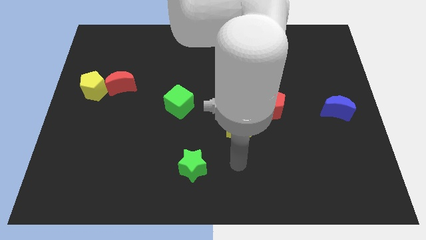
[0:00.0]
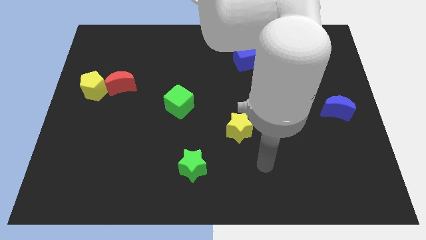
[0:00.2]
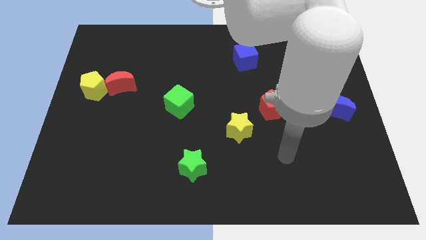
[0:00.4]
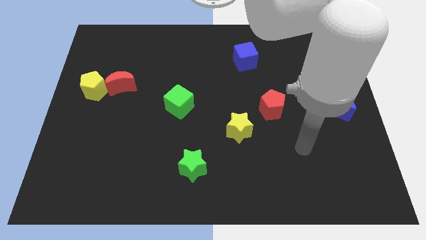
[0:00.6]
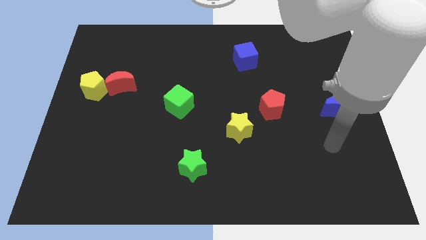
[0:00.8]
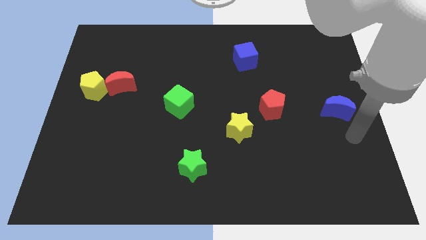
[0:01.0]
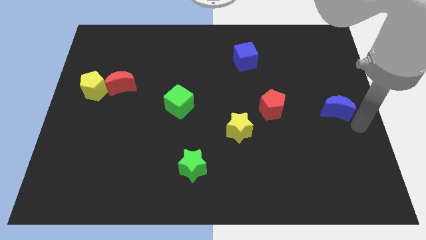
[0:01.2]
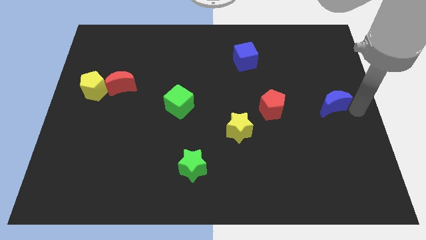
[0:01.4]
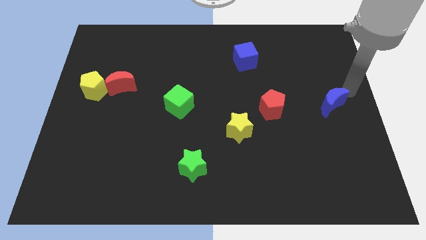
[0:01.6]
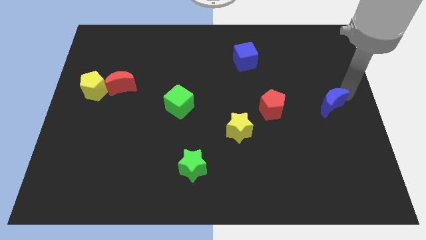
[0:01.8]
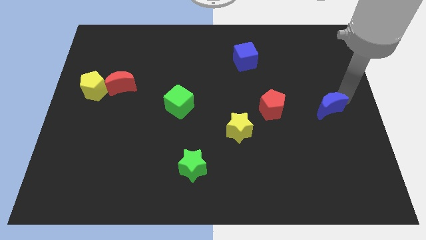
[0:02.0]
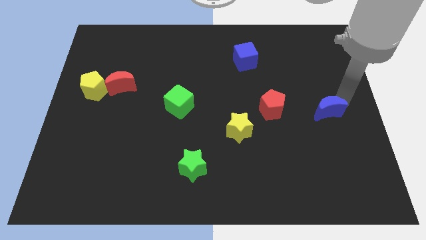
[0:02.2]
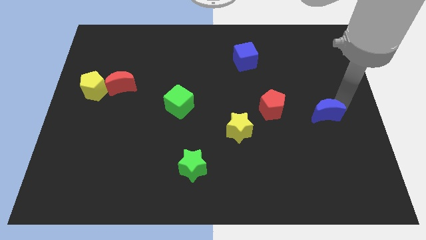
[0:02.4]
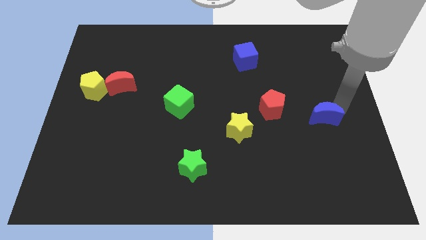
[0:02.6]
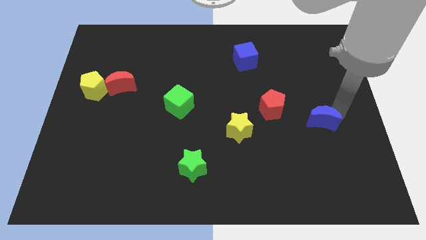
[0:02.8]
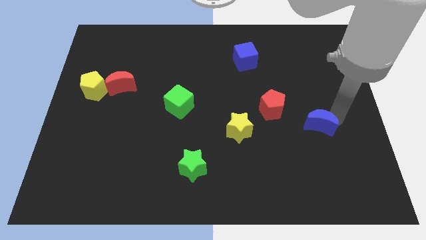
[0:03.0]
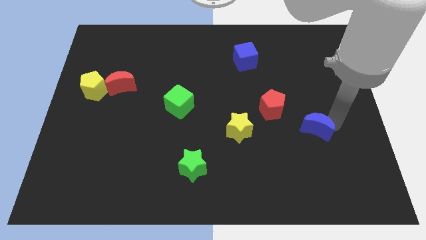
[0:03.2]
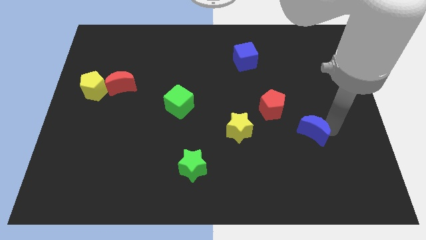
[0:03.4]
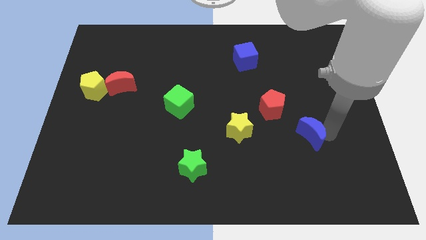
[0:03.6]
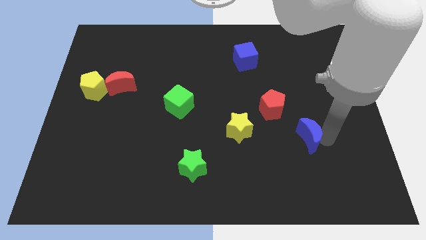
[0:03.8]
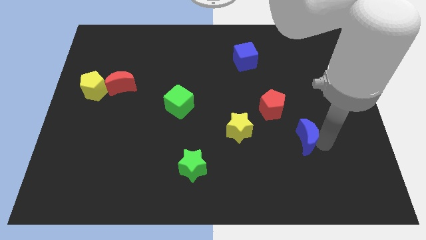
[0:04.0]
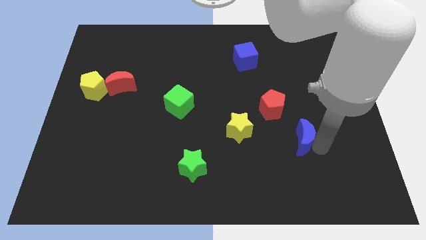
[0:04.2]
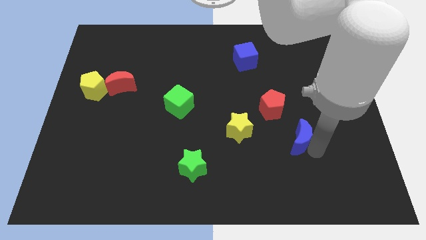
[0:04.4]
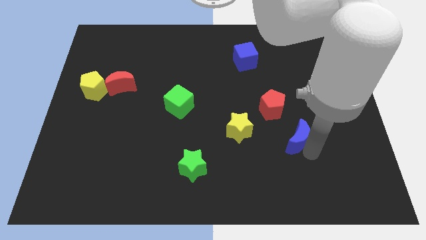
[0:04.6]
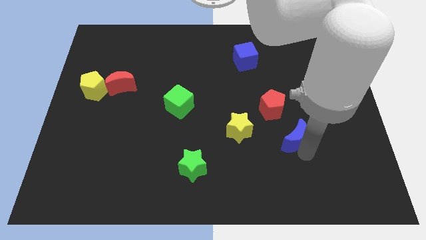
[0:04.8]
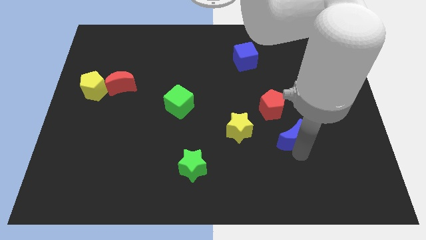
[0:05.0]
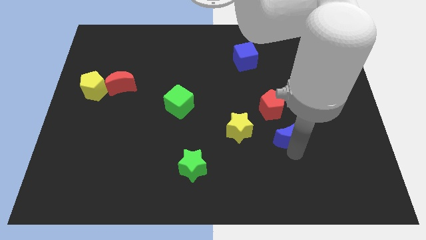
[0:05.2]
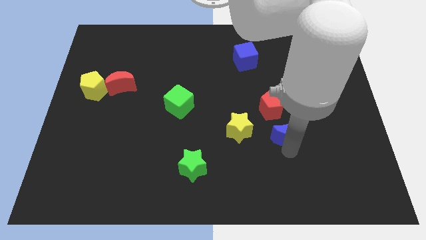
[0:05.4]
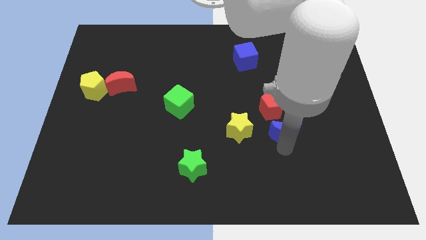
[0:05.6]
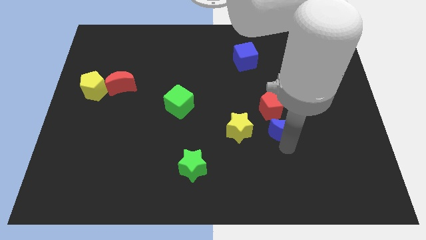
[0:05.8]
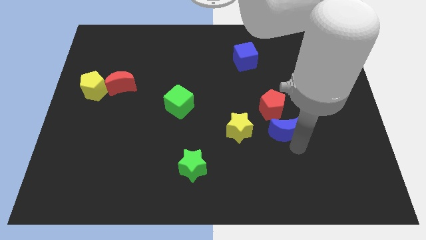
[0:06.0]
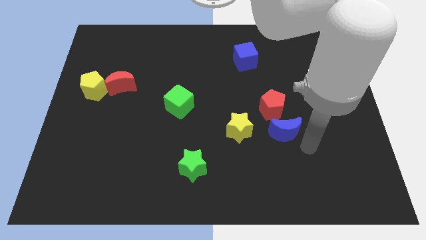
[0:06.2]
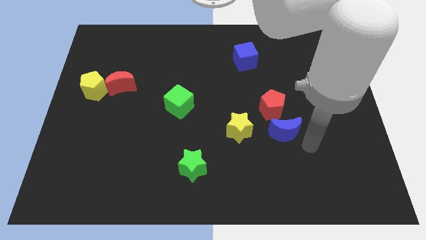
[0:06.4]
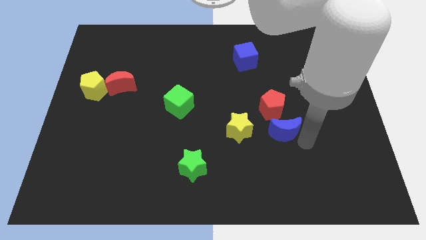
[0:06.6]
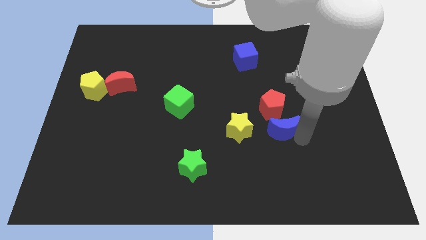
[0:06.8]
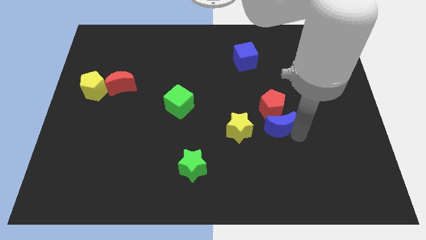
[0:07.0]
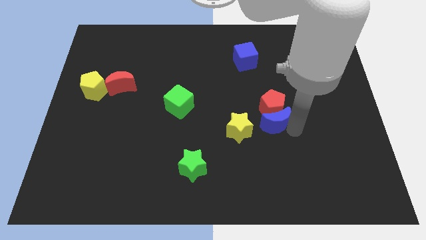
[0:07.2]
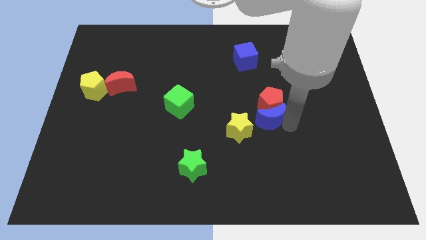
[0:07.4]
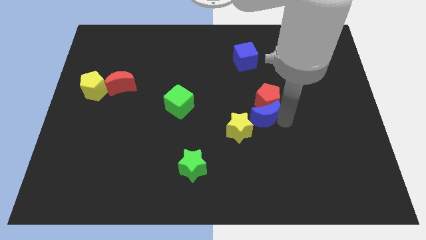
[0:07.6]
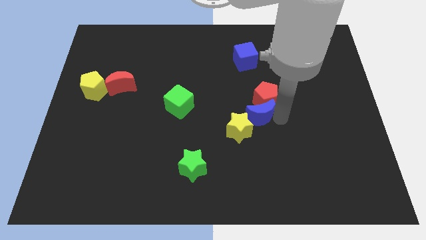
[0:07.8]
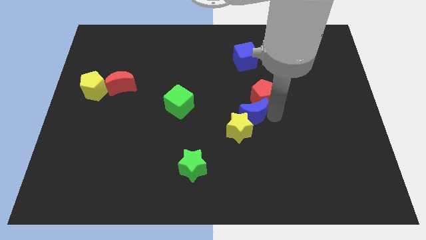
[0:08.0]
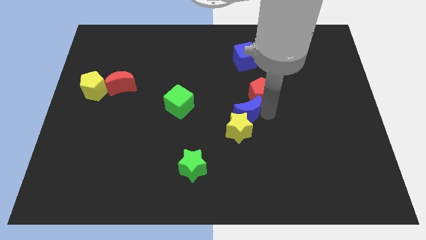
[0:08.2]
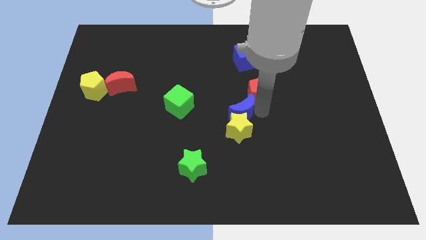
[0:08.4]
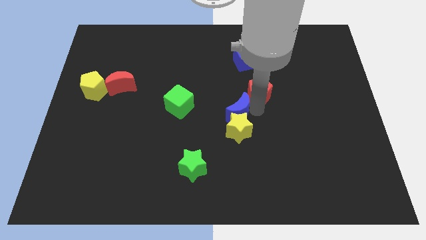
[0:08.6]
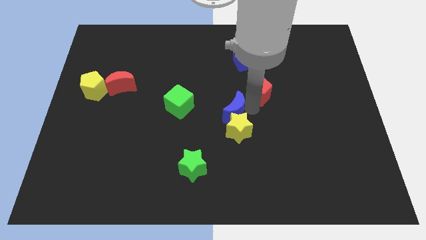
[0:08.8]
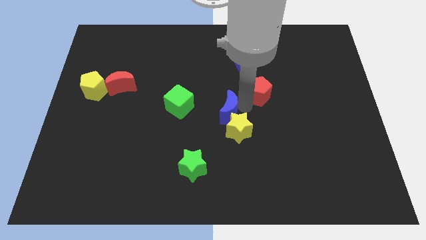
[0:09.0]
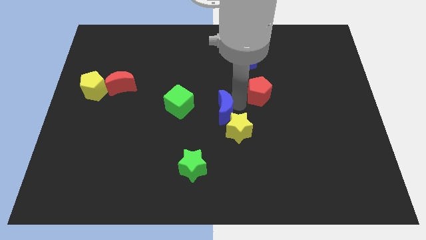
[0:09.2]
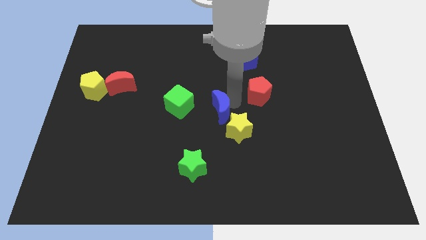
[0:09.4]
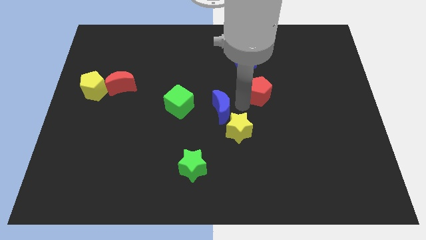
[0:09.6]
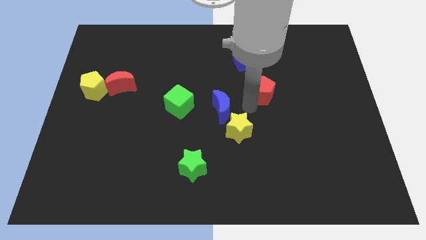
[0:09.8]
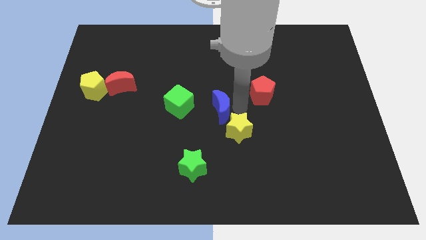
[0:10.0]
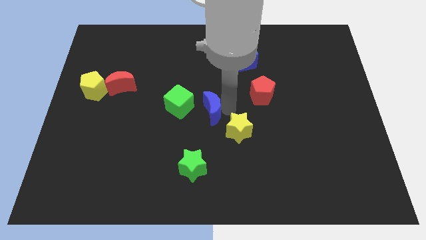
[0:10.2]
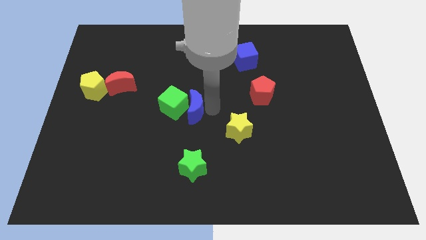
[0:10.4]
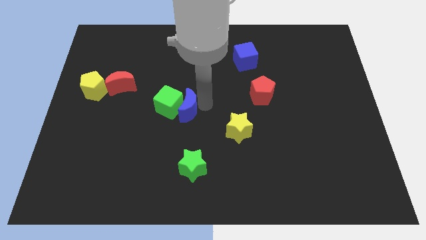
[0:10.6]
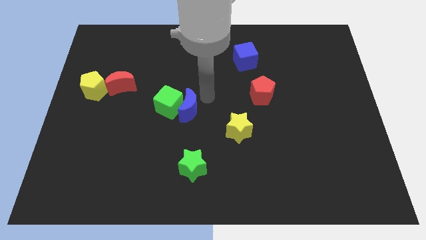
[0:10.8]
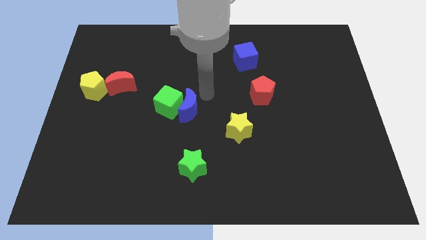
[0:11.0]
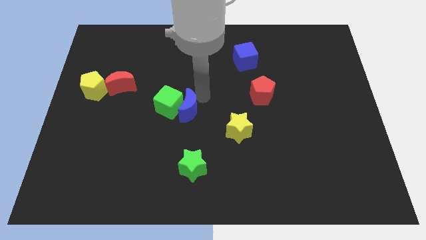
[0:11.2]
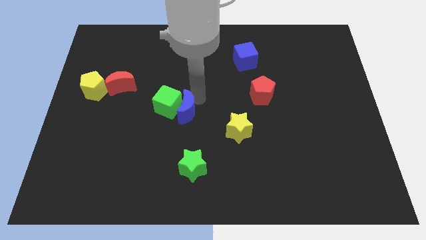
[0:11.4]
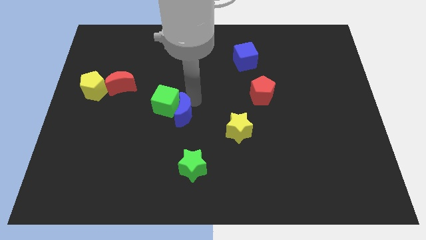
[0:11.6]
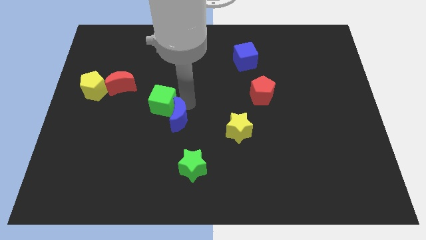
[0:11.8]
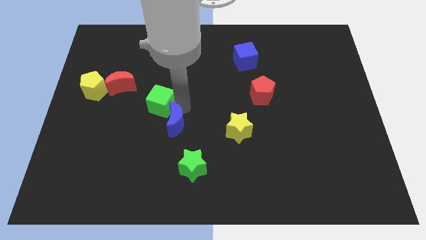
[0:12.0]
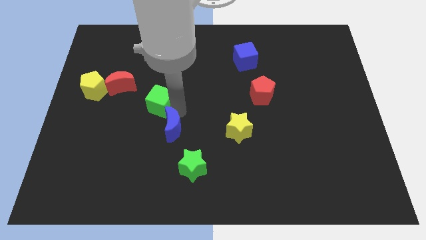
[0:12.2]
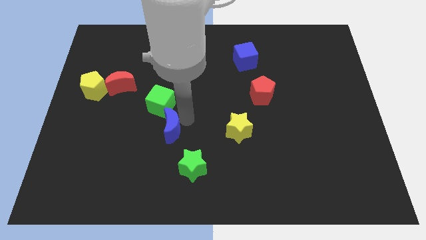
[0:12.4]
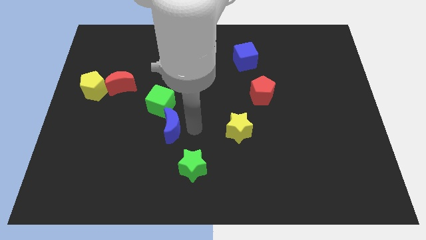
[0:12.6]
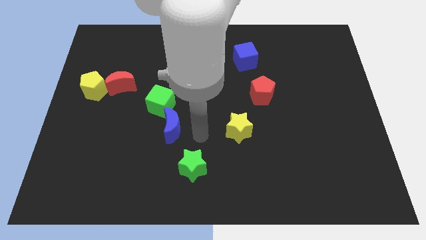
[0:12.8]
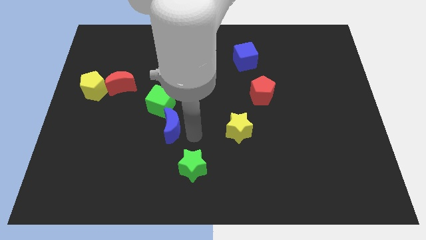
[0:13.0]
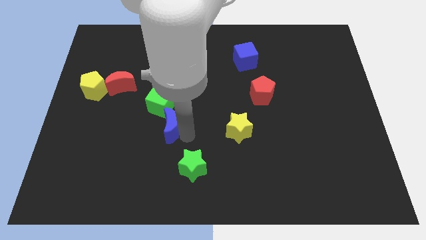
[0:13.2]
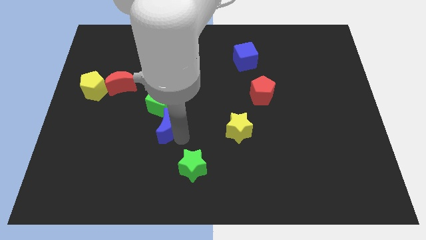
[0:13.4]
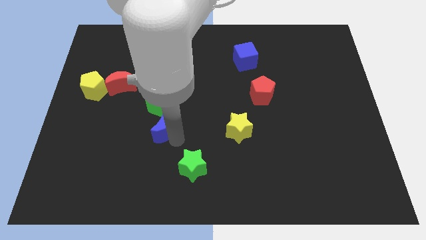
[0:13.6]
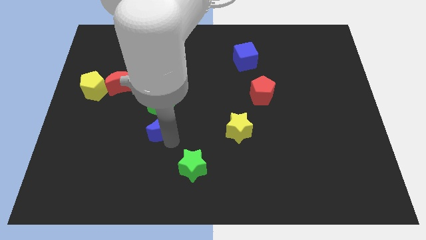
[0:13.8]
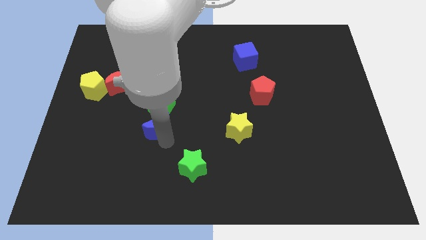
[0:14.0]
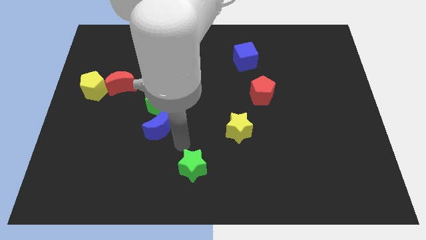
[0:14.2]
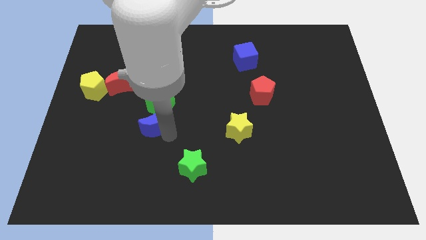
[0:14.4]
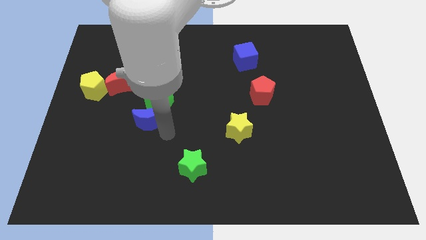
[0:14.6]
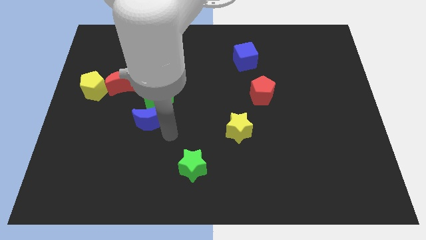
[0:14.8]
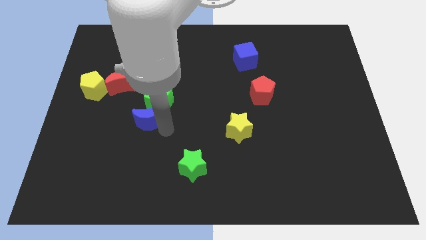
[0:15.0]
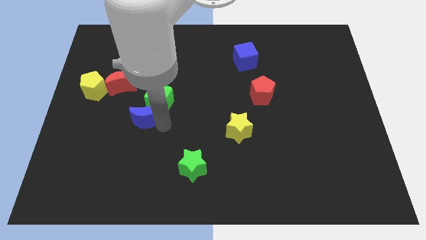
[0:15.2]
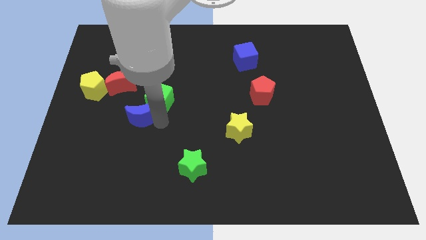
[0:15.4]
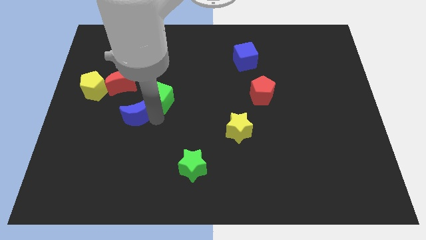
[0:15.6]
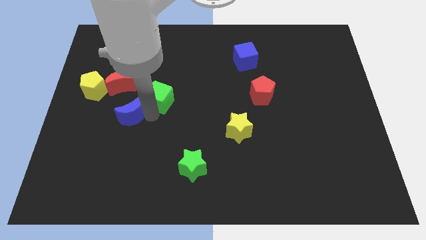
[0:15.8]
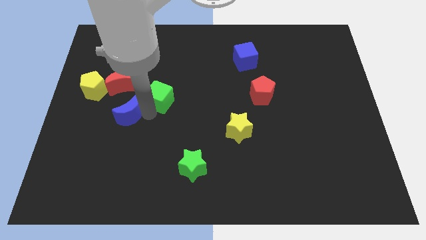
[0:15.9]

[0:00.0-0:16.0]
move the blue moon to the bottom right side of the yellow pentagon
